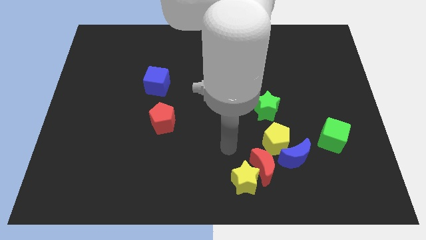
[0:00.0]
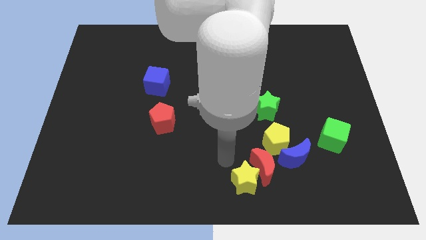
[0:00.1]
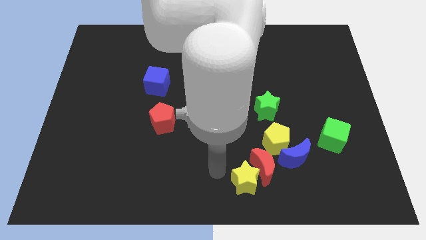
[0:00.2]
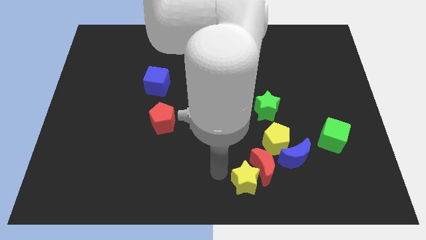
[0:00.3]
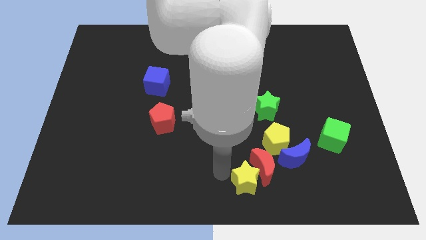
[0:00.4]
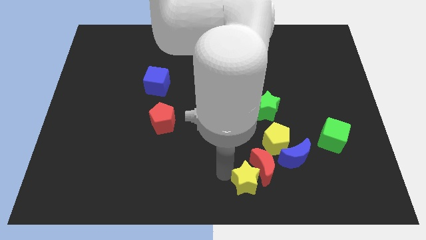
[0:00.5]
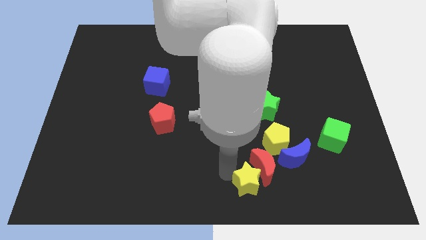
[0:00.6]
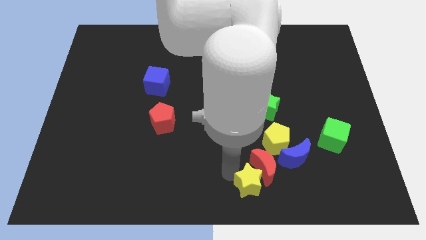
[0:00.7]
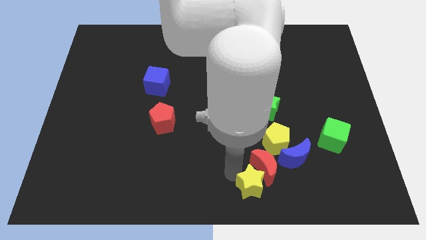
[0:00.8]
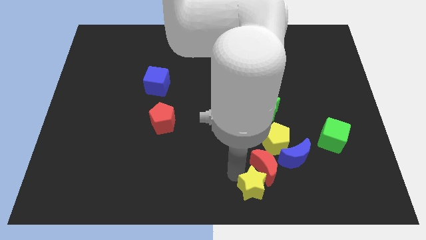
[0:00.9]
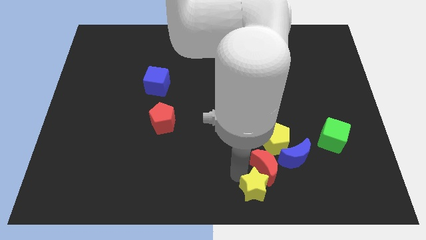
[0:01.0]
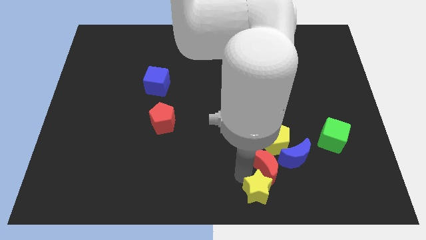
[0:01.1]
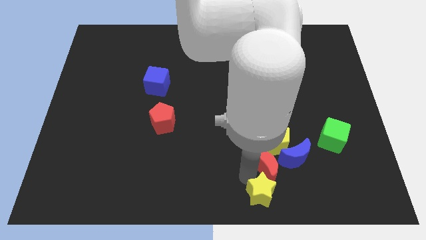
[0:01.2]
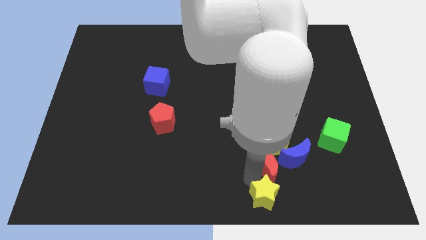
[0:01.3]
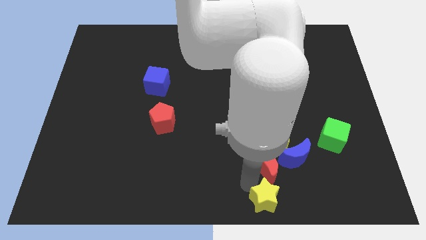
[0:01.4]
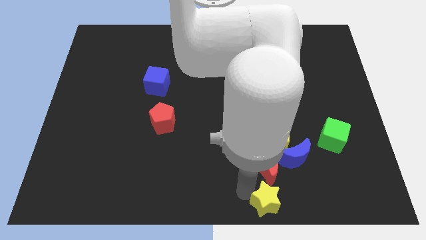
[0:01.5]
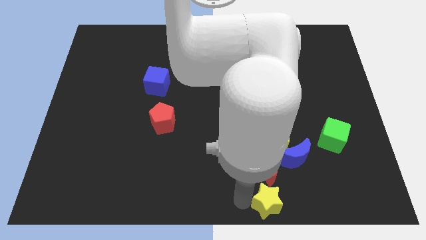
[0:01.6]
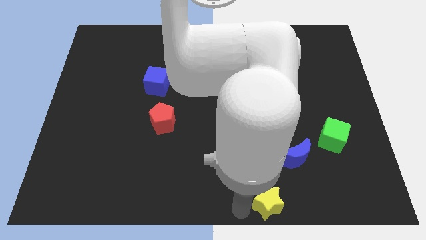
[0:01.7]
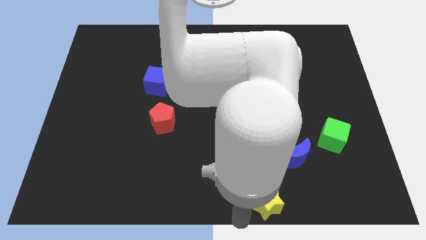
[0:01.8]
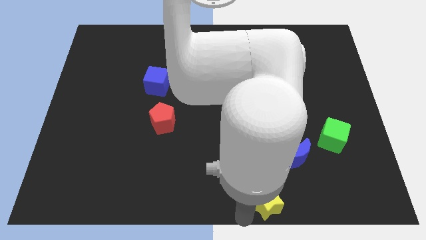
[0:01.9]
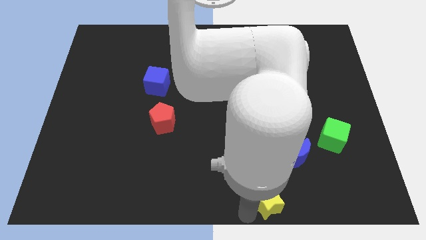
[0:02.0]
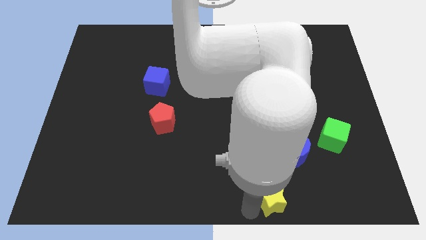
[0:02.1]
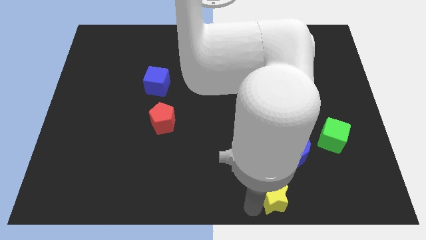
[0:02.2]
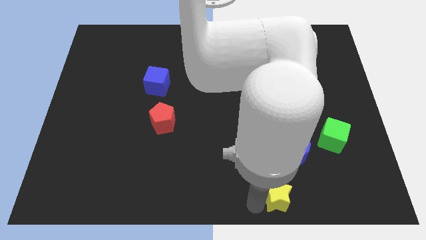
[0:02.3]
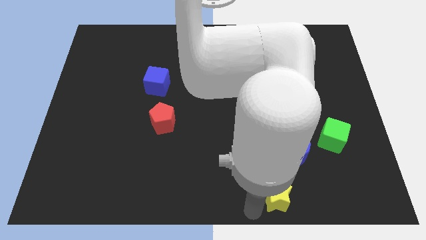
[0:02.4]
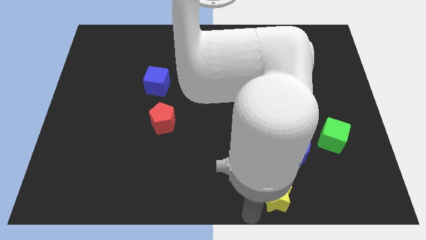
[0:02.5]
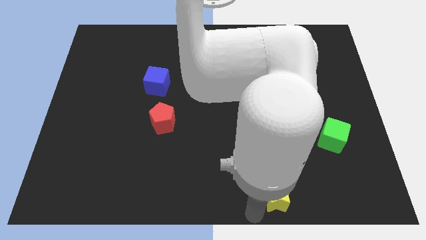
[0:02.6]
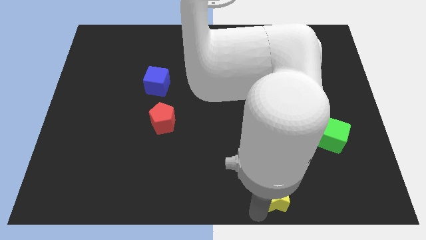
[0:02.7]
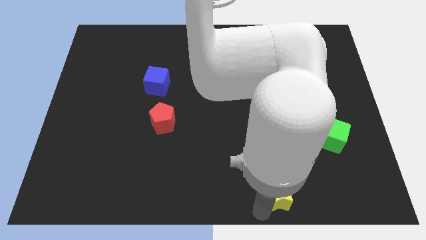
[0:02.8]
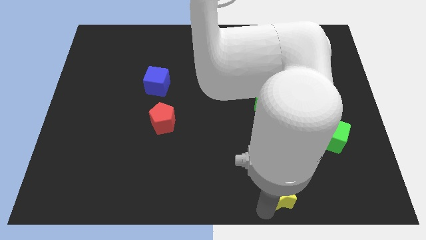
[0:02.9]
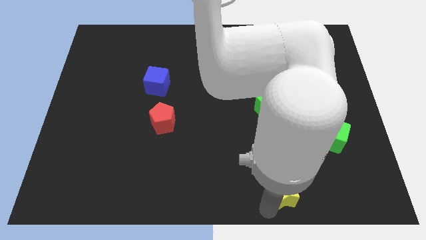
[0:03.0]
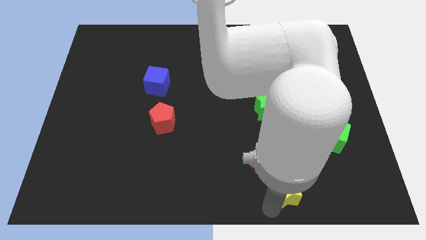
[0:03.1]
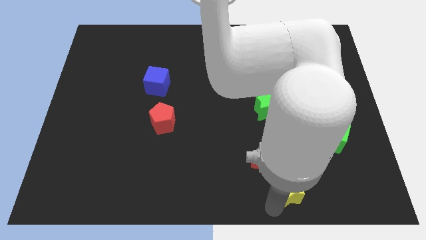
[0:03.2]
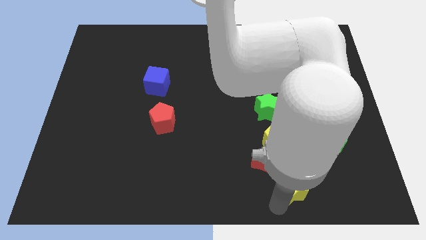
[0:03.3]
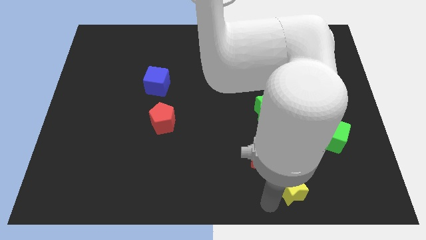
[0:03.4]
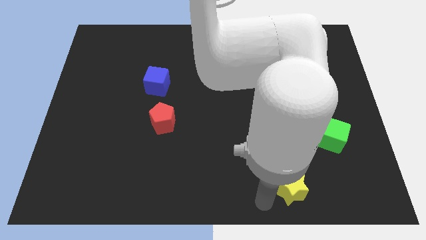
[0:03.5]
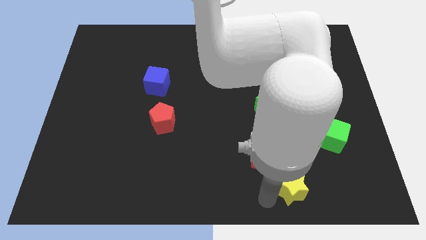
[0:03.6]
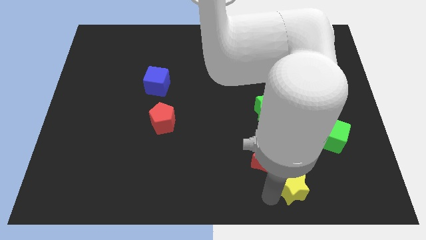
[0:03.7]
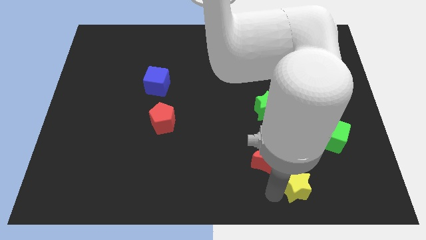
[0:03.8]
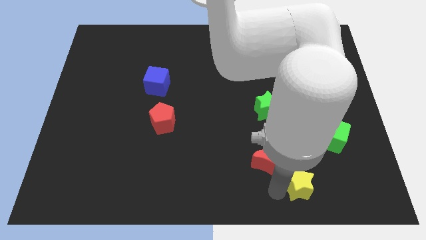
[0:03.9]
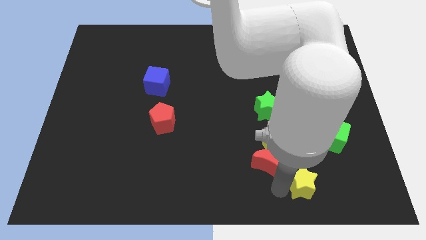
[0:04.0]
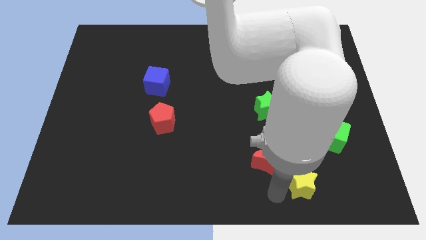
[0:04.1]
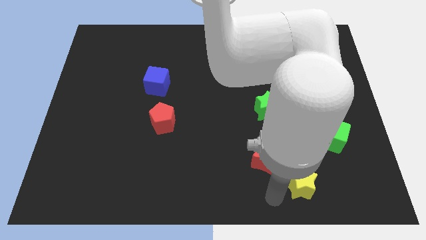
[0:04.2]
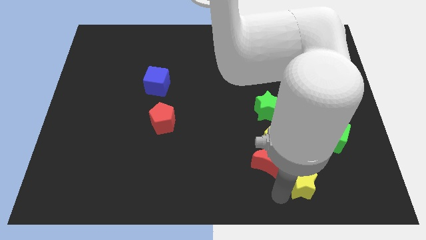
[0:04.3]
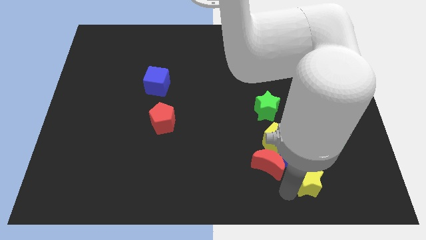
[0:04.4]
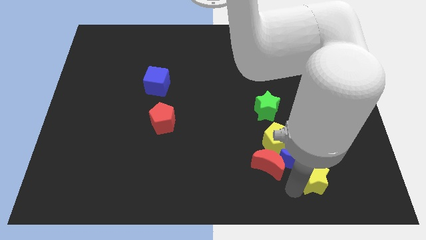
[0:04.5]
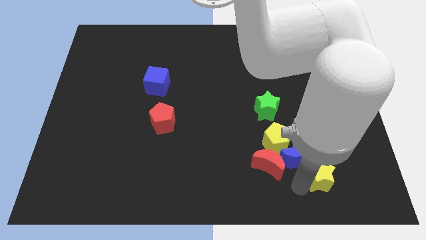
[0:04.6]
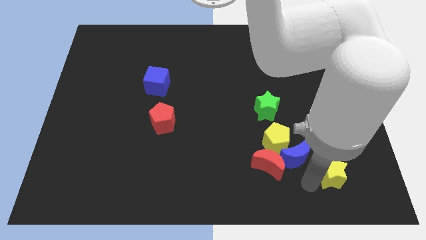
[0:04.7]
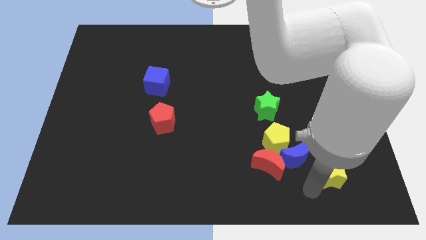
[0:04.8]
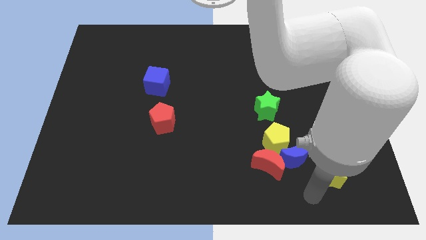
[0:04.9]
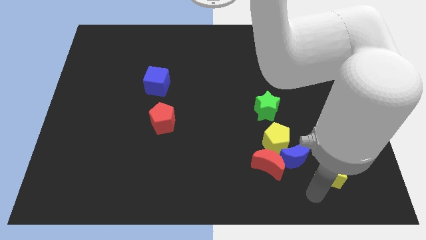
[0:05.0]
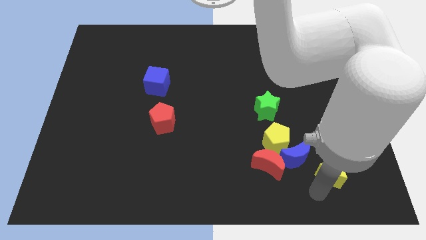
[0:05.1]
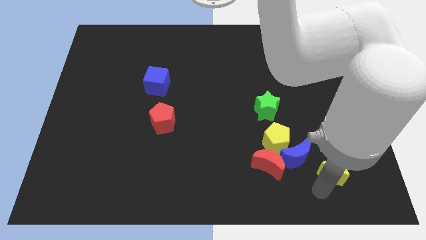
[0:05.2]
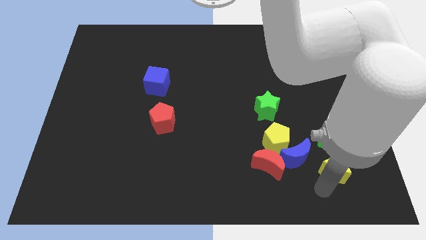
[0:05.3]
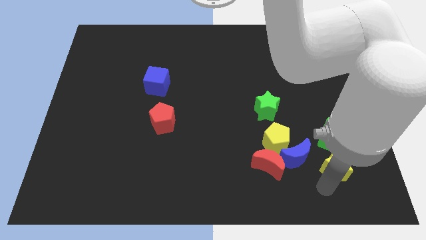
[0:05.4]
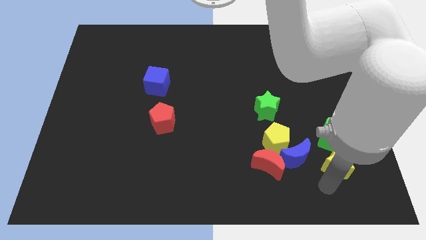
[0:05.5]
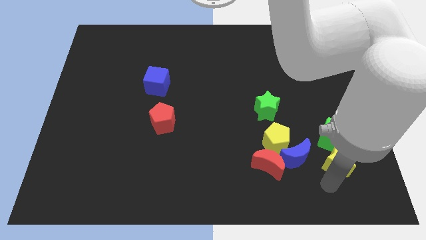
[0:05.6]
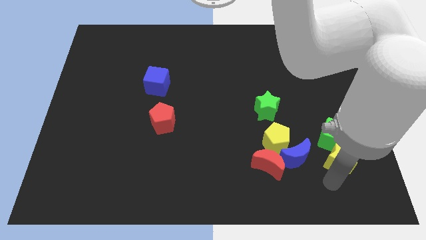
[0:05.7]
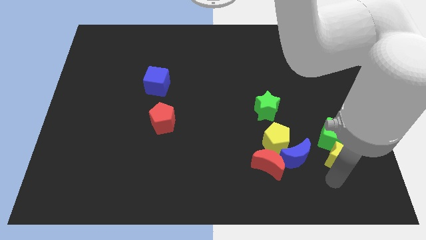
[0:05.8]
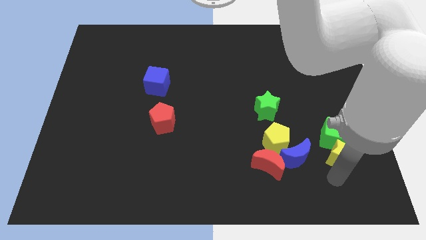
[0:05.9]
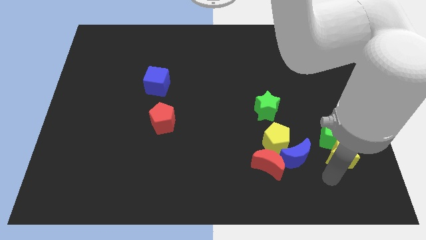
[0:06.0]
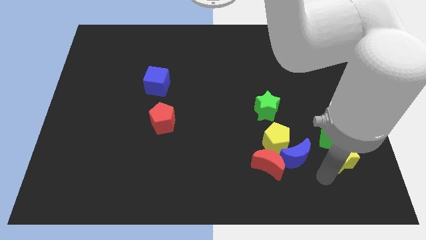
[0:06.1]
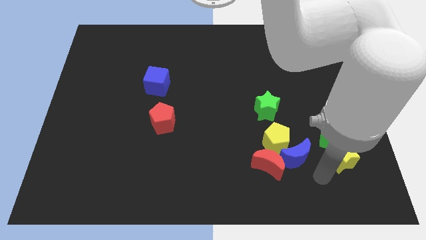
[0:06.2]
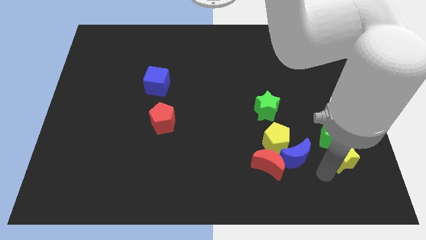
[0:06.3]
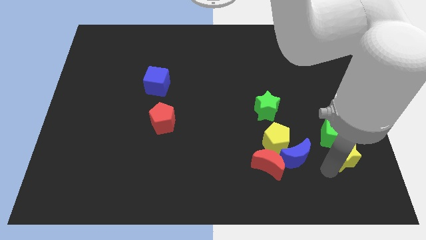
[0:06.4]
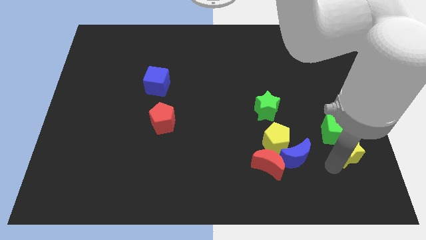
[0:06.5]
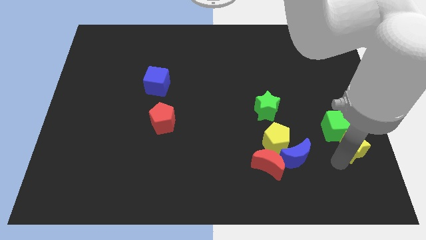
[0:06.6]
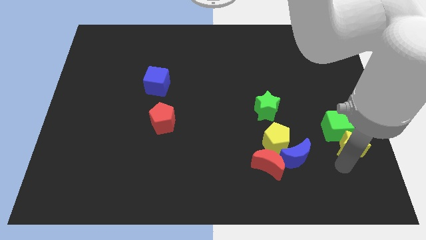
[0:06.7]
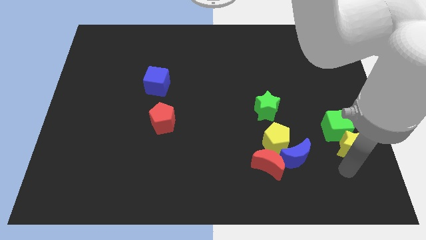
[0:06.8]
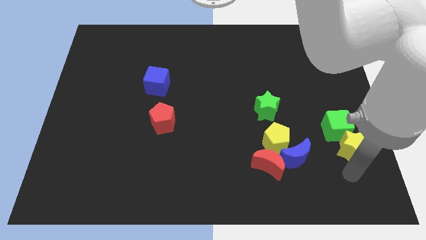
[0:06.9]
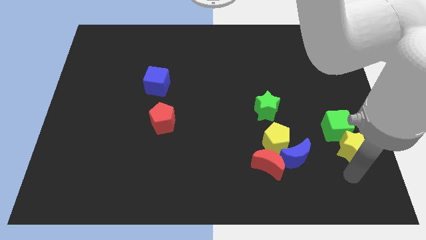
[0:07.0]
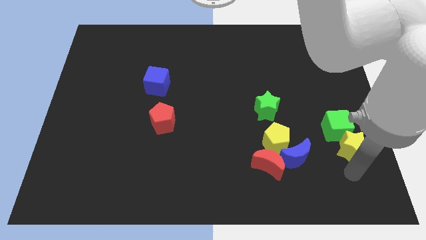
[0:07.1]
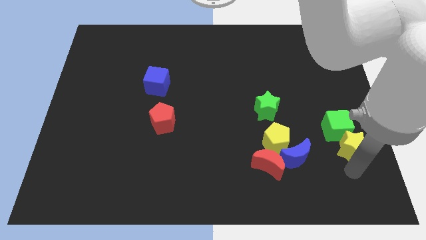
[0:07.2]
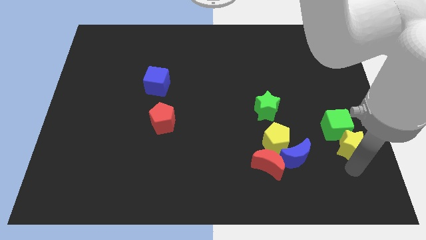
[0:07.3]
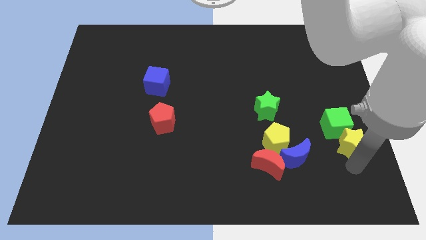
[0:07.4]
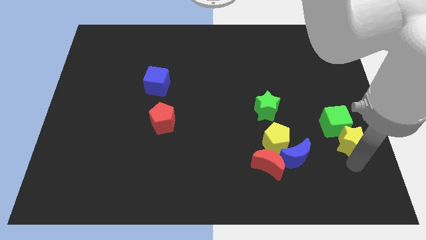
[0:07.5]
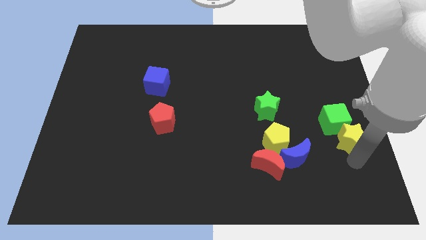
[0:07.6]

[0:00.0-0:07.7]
move the yellow star to the center right
